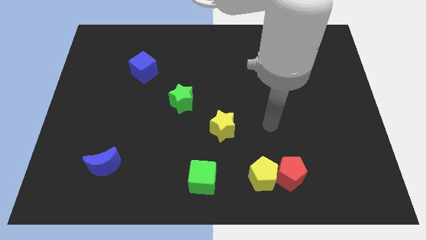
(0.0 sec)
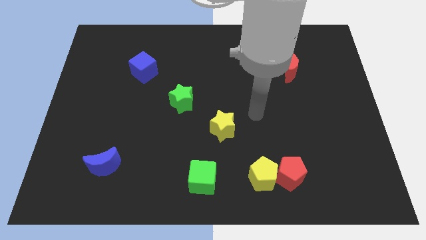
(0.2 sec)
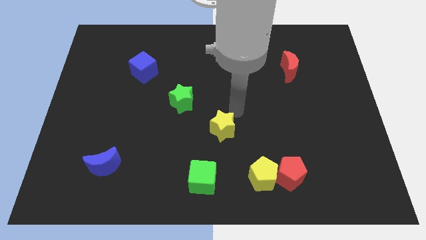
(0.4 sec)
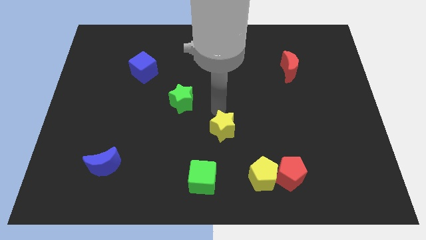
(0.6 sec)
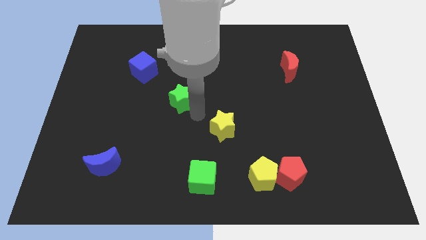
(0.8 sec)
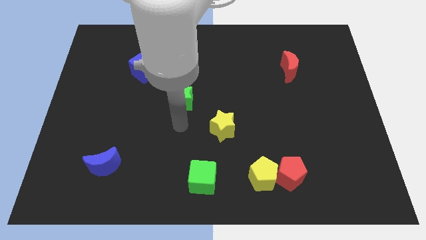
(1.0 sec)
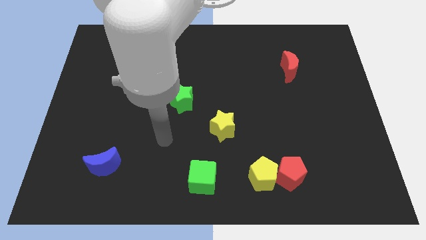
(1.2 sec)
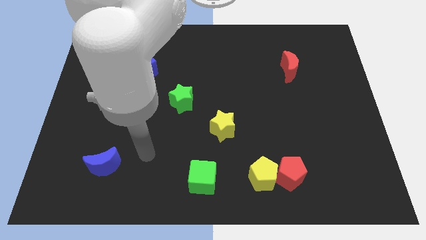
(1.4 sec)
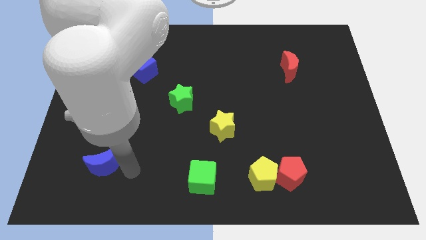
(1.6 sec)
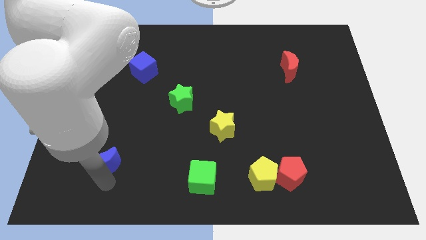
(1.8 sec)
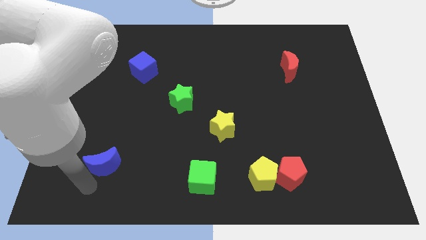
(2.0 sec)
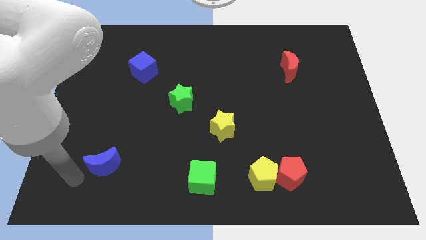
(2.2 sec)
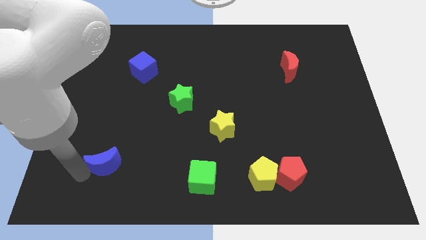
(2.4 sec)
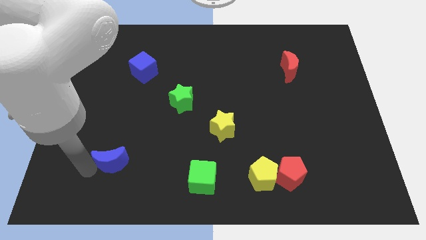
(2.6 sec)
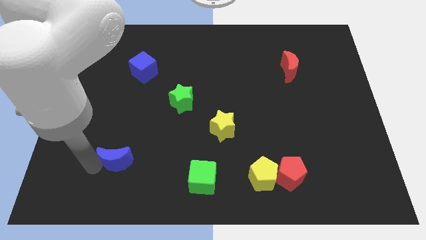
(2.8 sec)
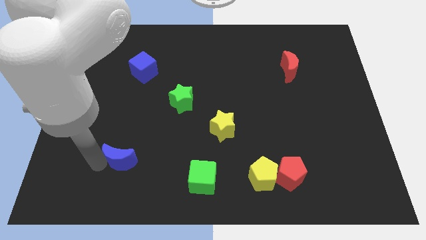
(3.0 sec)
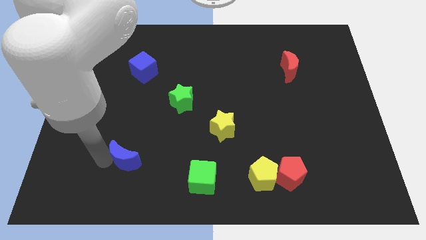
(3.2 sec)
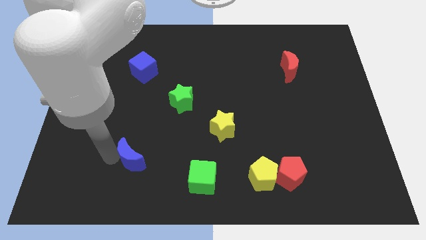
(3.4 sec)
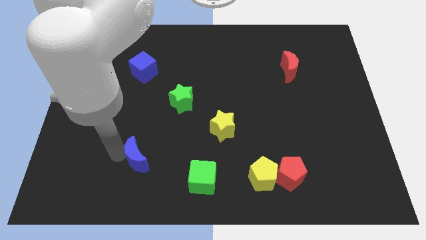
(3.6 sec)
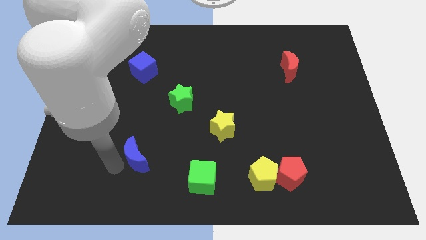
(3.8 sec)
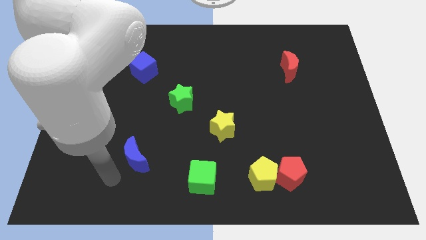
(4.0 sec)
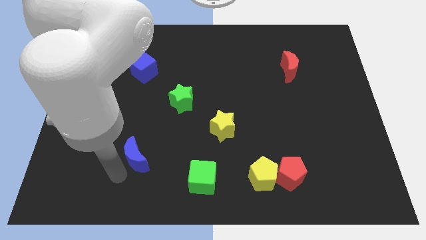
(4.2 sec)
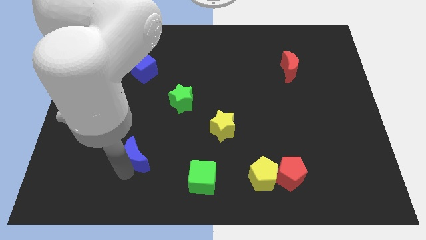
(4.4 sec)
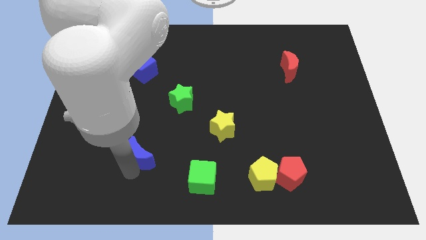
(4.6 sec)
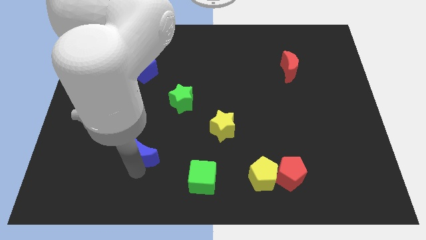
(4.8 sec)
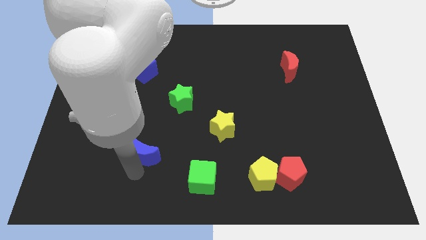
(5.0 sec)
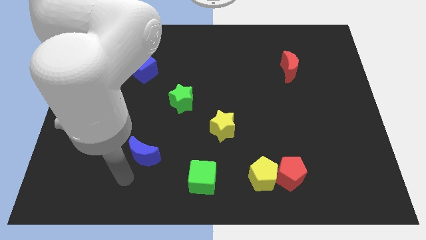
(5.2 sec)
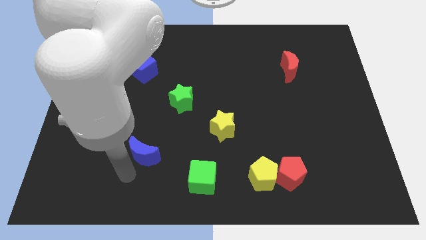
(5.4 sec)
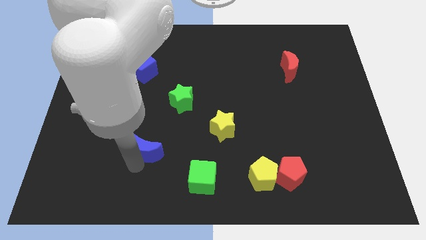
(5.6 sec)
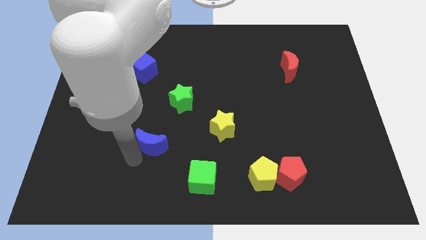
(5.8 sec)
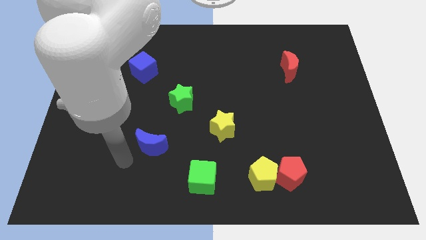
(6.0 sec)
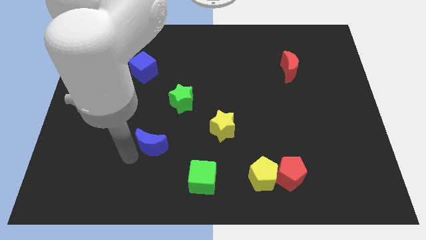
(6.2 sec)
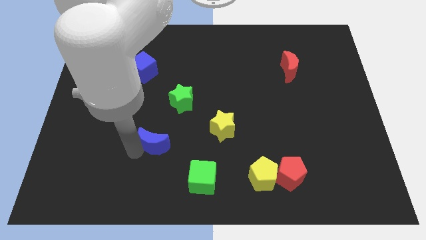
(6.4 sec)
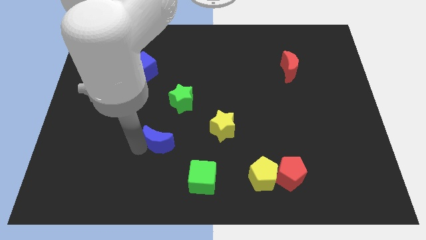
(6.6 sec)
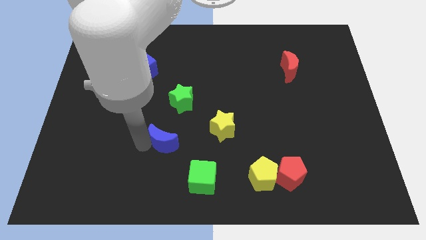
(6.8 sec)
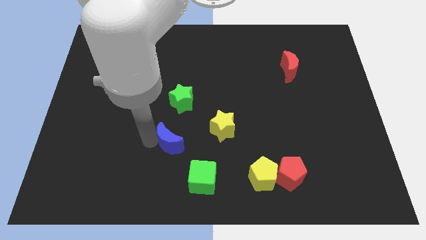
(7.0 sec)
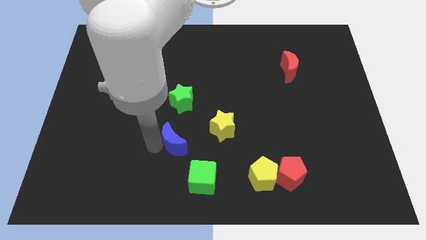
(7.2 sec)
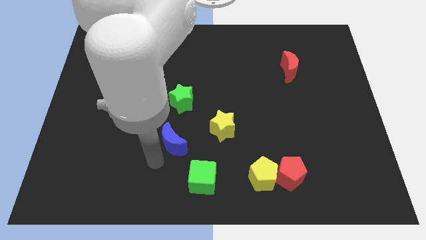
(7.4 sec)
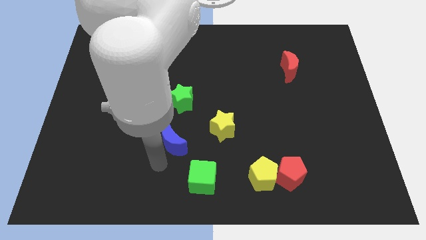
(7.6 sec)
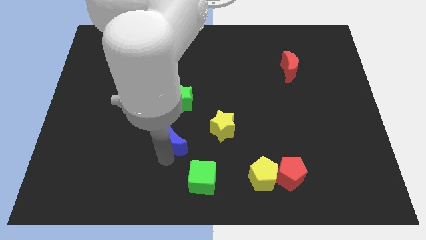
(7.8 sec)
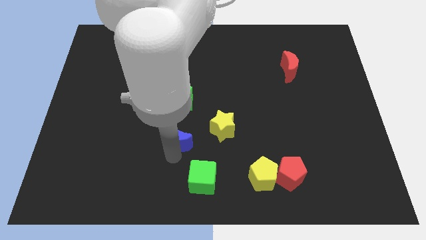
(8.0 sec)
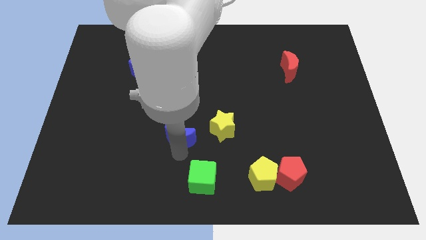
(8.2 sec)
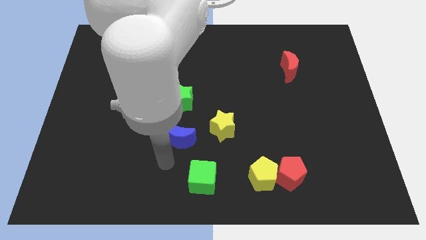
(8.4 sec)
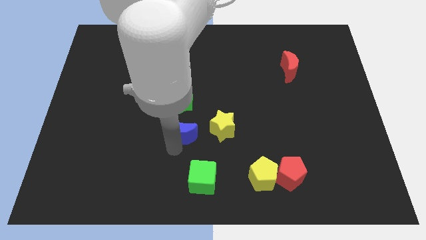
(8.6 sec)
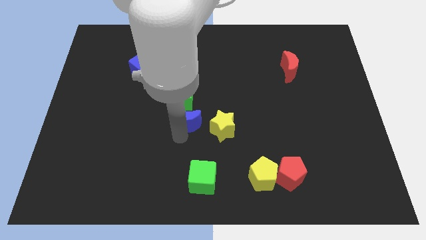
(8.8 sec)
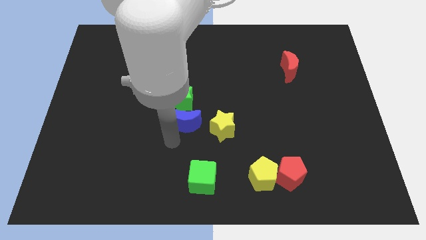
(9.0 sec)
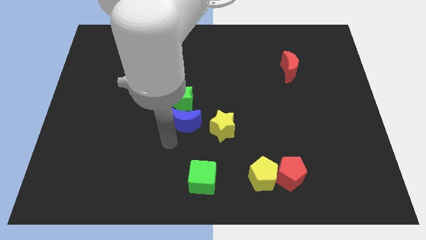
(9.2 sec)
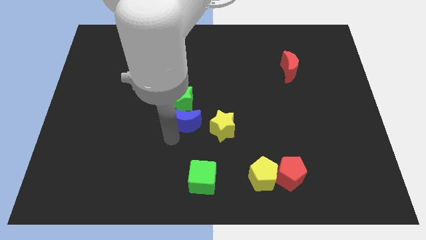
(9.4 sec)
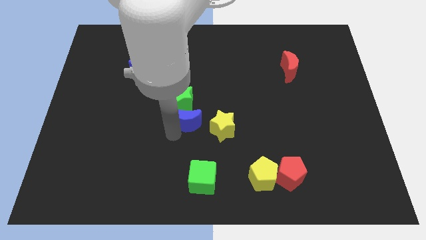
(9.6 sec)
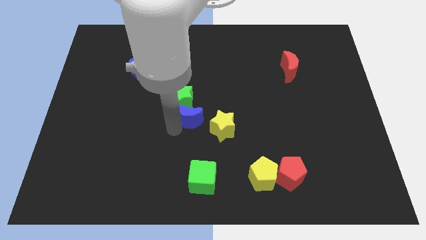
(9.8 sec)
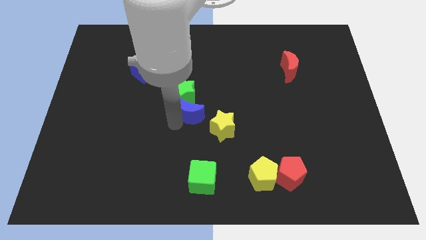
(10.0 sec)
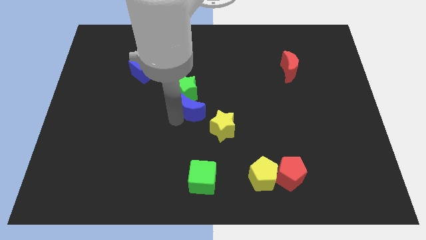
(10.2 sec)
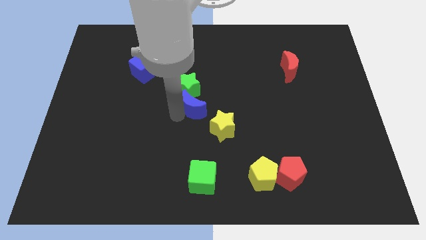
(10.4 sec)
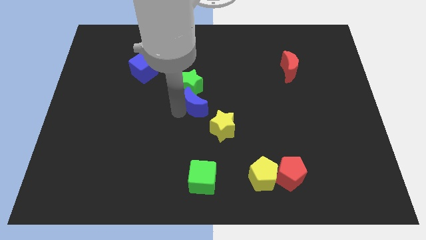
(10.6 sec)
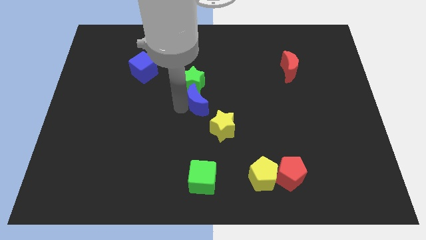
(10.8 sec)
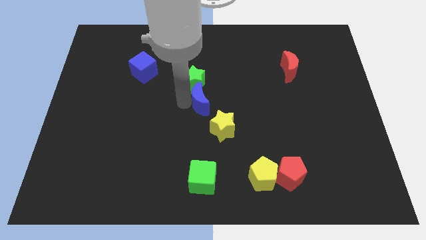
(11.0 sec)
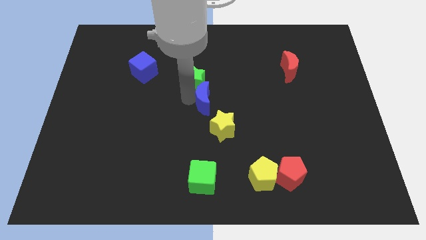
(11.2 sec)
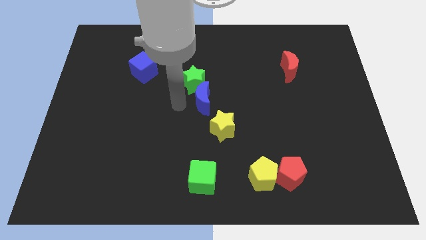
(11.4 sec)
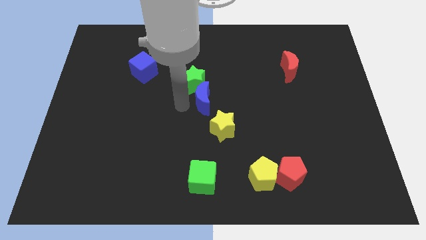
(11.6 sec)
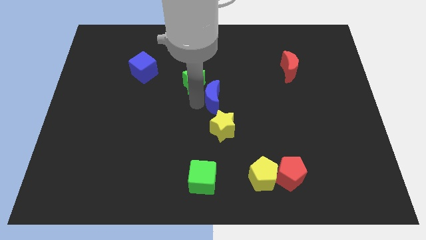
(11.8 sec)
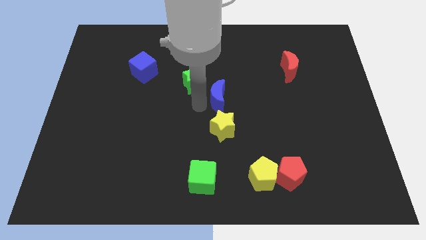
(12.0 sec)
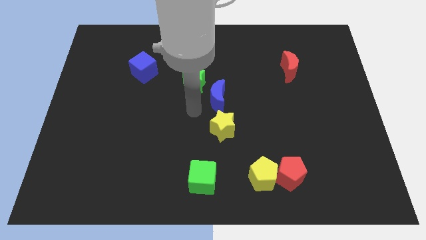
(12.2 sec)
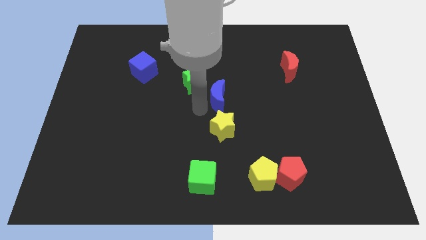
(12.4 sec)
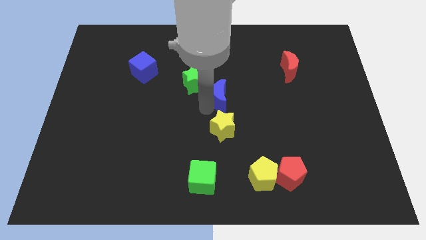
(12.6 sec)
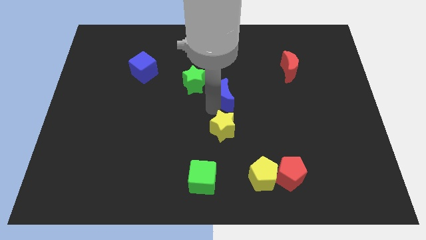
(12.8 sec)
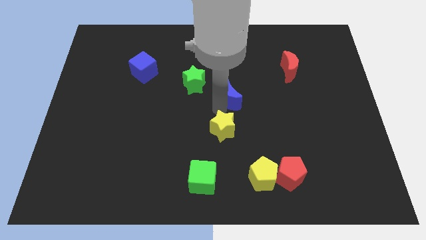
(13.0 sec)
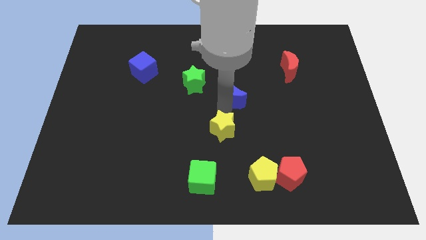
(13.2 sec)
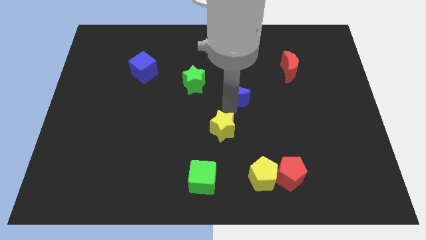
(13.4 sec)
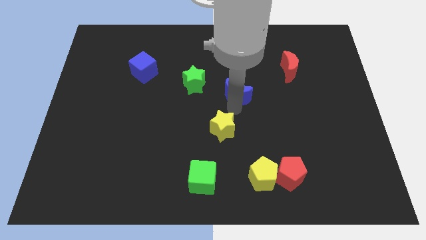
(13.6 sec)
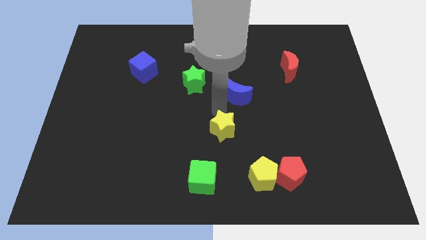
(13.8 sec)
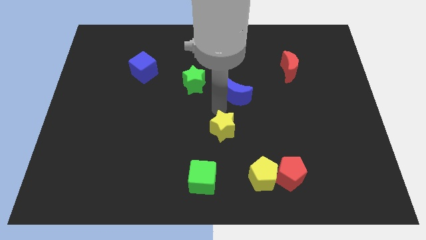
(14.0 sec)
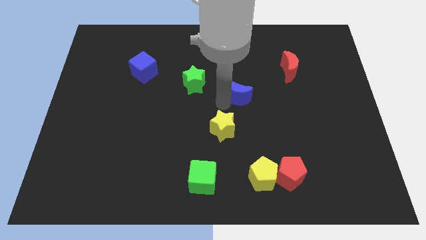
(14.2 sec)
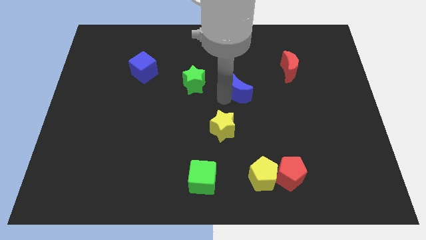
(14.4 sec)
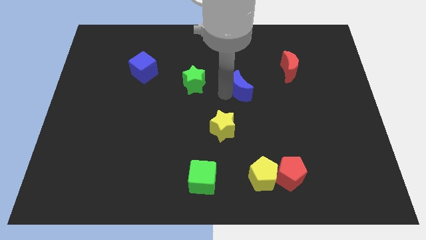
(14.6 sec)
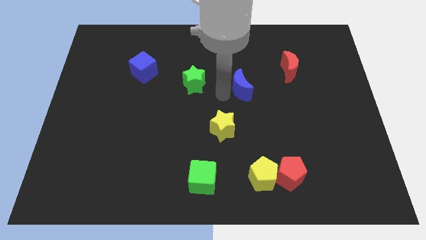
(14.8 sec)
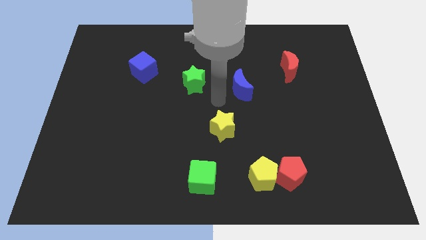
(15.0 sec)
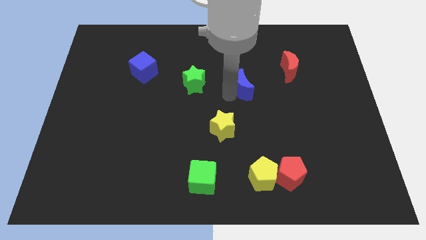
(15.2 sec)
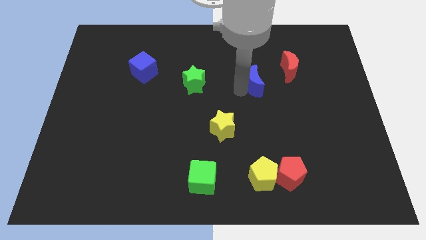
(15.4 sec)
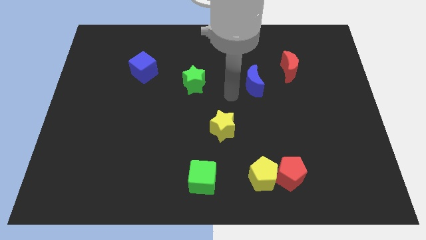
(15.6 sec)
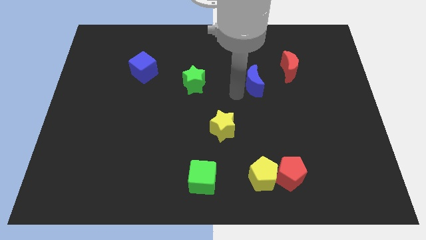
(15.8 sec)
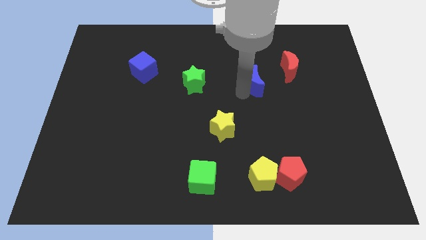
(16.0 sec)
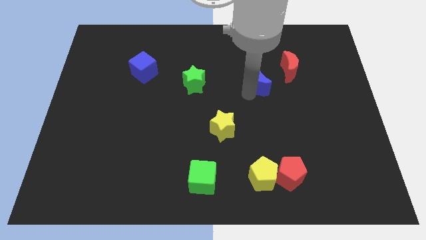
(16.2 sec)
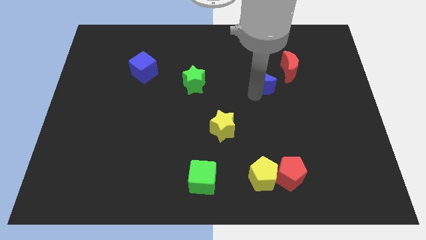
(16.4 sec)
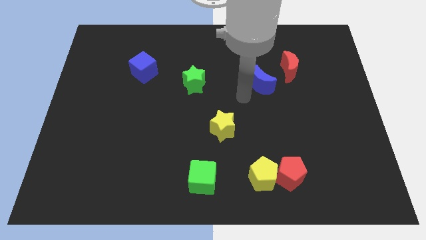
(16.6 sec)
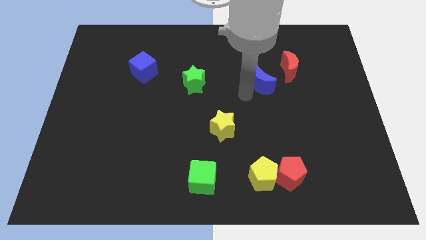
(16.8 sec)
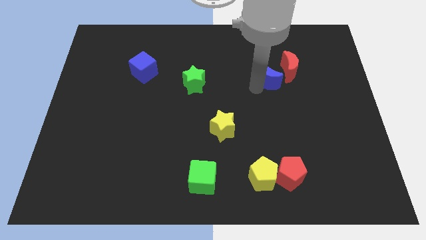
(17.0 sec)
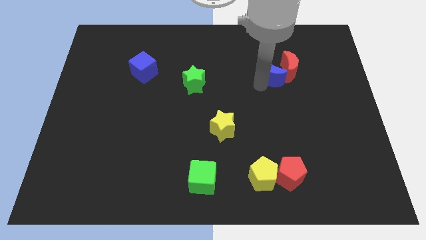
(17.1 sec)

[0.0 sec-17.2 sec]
move the blue moon to the red moon
